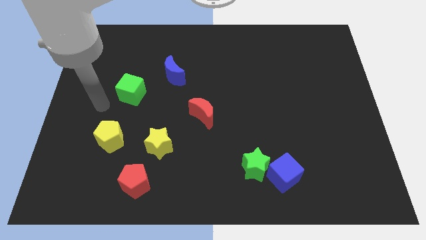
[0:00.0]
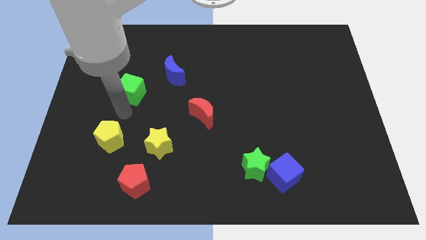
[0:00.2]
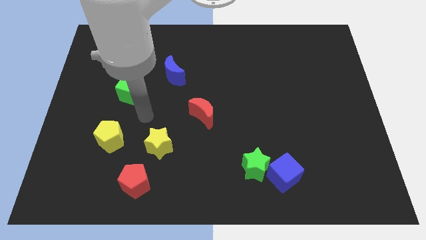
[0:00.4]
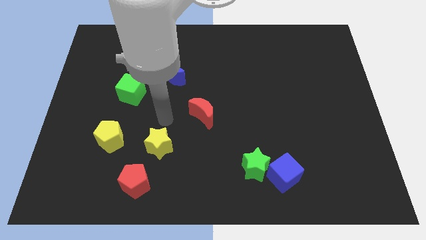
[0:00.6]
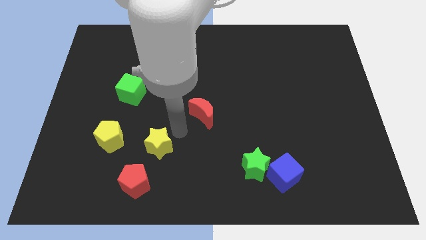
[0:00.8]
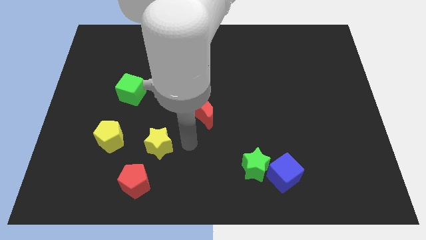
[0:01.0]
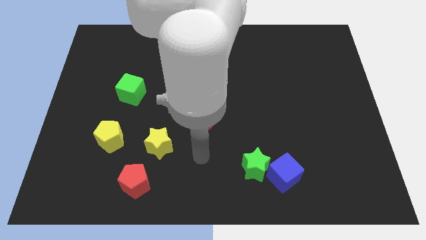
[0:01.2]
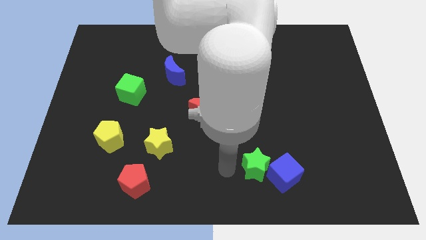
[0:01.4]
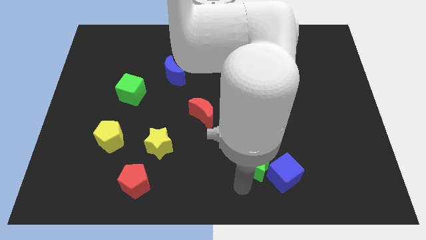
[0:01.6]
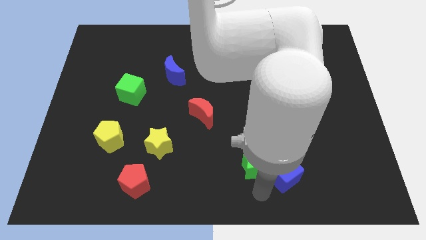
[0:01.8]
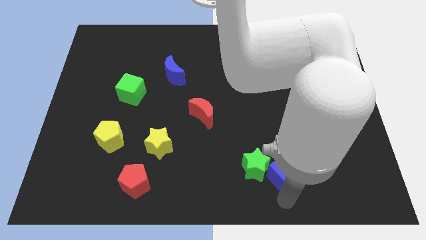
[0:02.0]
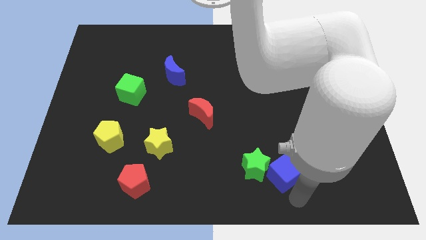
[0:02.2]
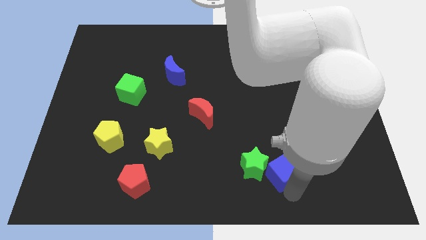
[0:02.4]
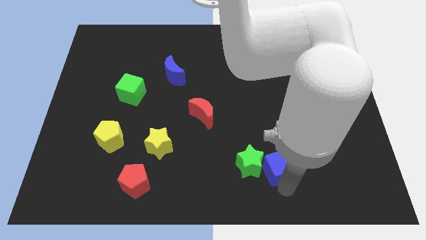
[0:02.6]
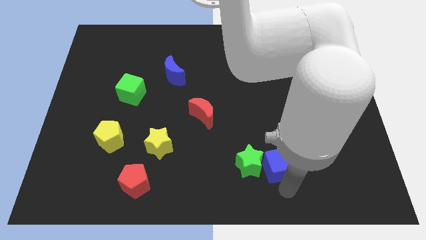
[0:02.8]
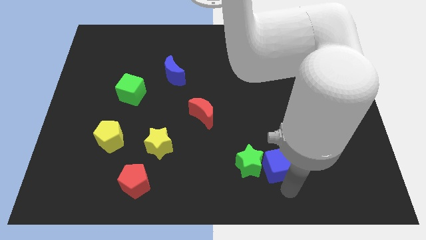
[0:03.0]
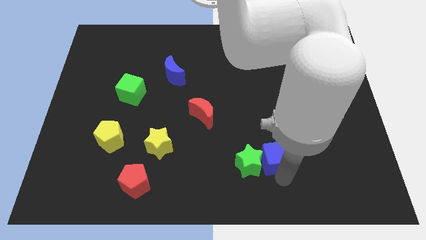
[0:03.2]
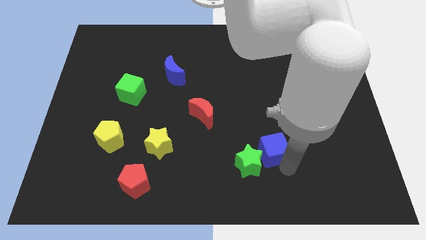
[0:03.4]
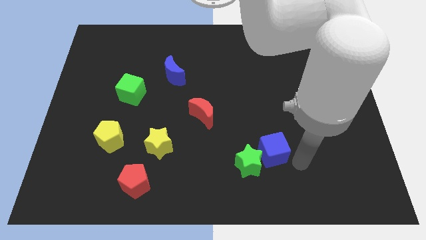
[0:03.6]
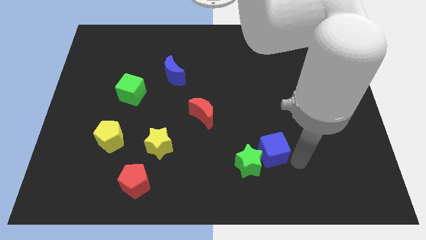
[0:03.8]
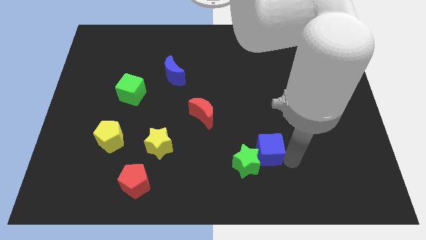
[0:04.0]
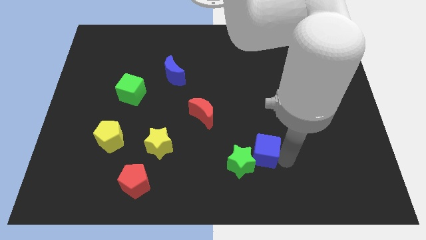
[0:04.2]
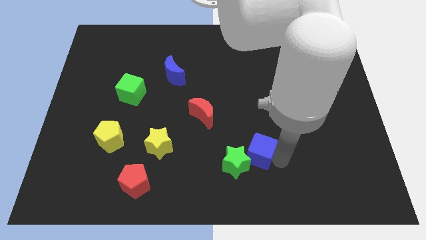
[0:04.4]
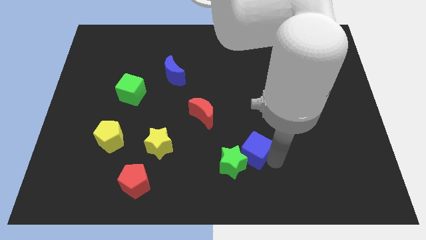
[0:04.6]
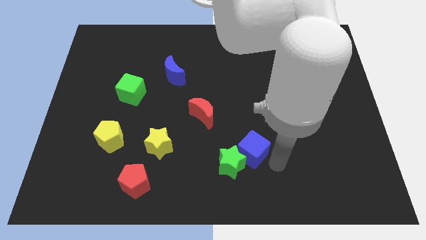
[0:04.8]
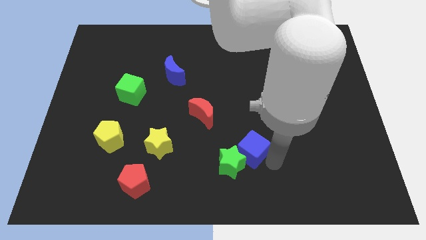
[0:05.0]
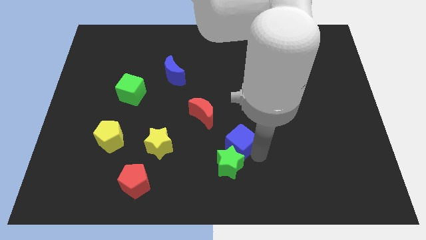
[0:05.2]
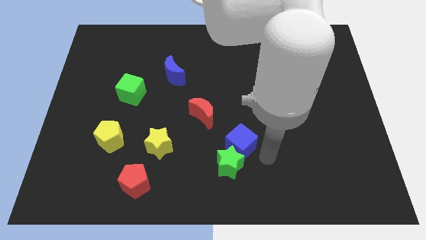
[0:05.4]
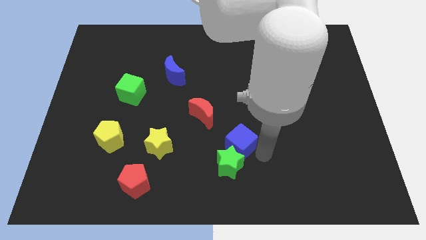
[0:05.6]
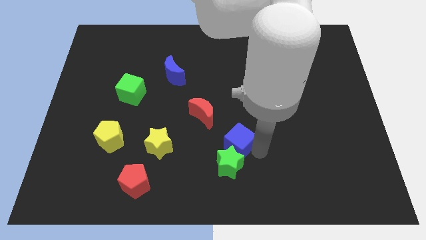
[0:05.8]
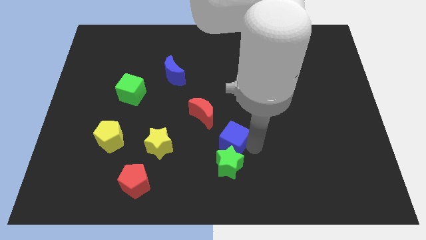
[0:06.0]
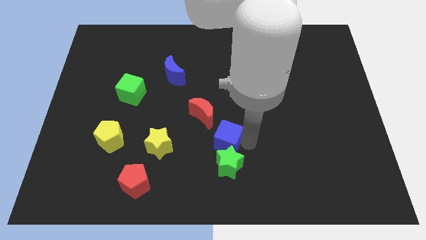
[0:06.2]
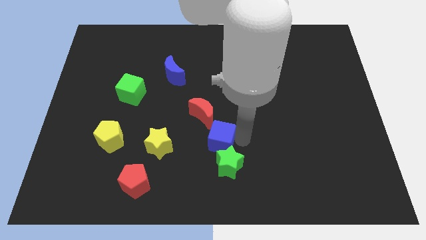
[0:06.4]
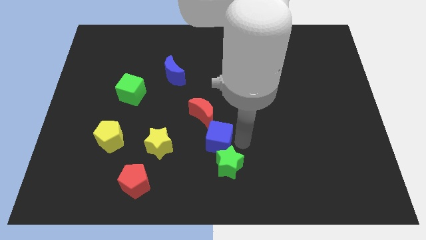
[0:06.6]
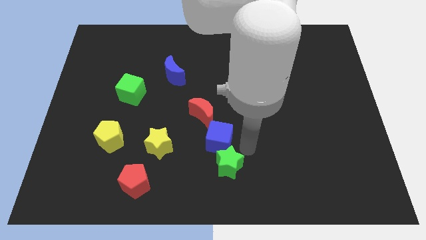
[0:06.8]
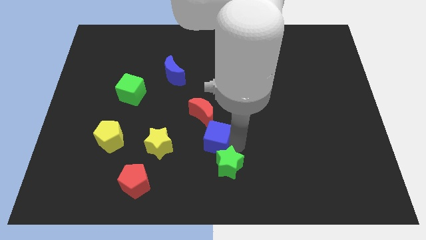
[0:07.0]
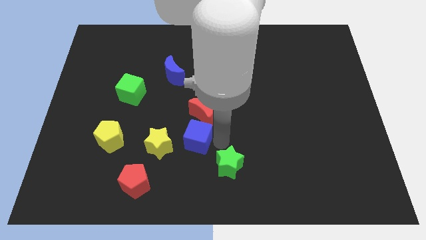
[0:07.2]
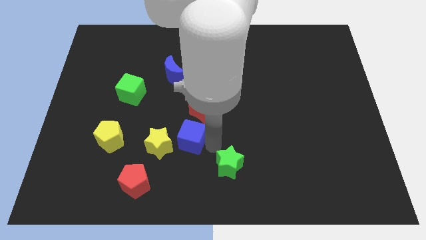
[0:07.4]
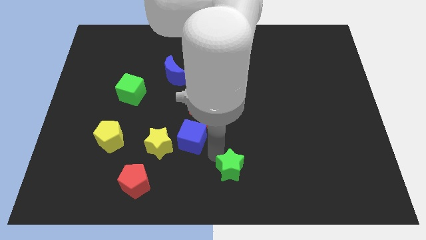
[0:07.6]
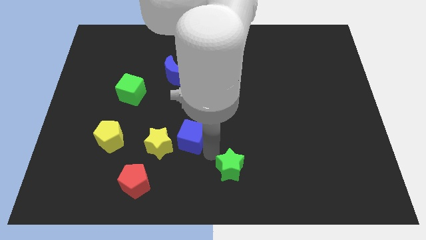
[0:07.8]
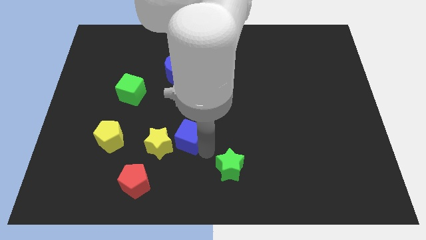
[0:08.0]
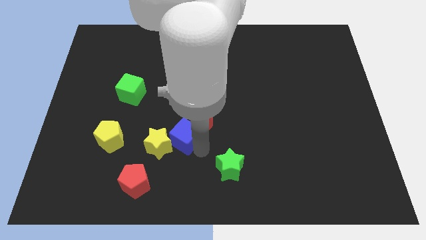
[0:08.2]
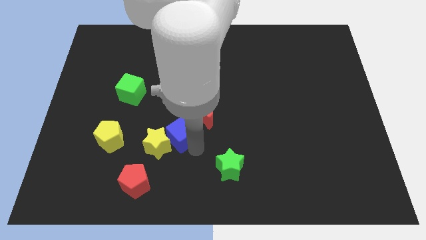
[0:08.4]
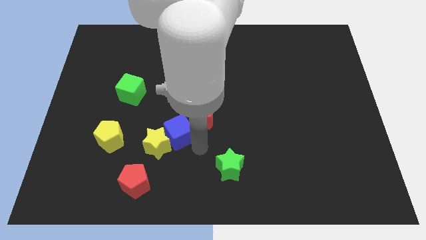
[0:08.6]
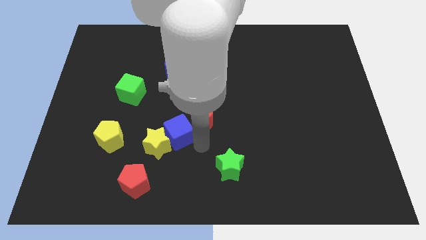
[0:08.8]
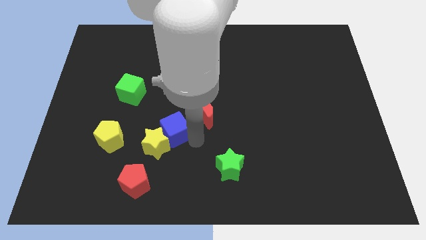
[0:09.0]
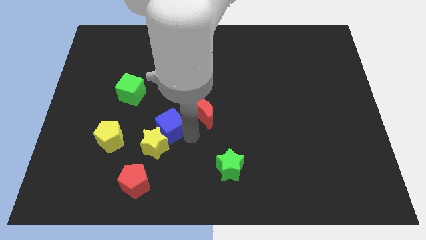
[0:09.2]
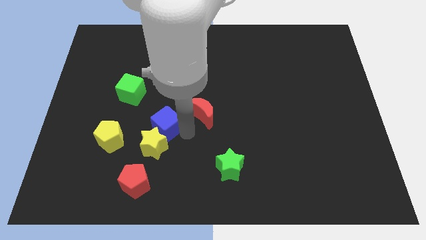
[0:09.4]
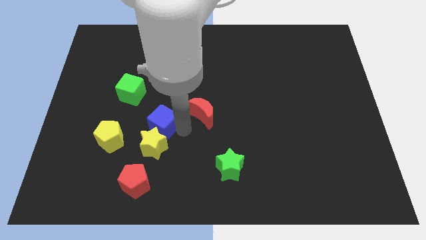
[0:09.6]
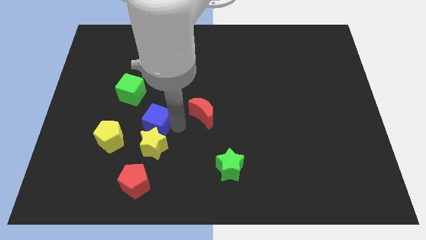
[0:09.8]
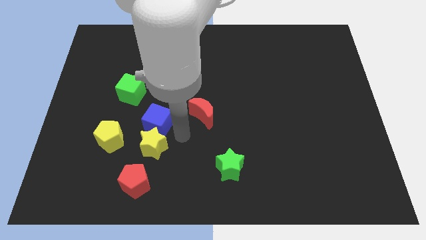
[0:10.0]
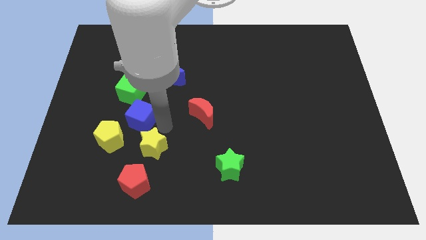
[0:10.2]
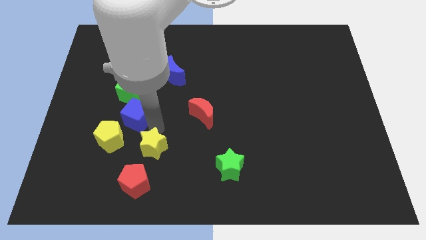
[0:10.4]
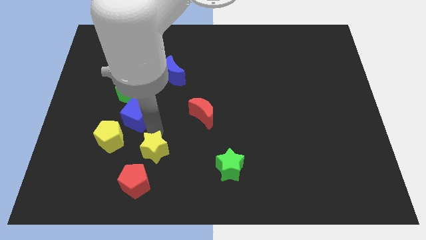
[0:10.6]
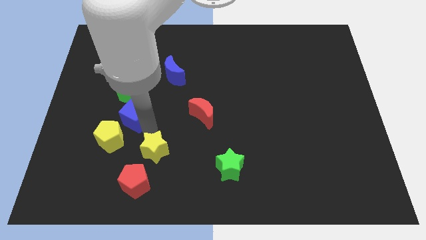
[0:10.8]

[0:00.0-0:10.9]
push the blue cube above the yellow pentagon

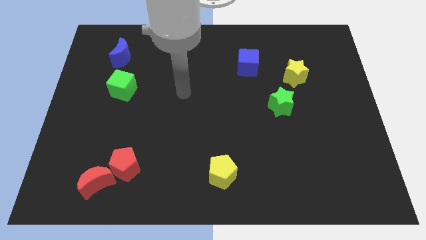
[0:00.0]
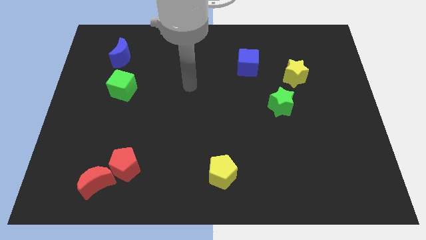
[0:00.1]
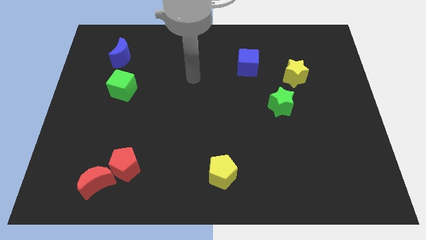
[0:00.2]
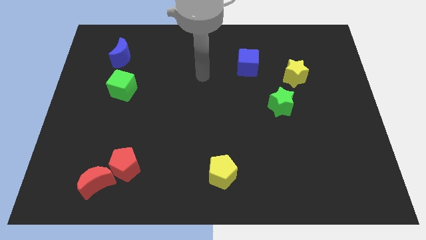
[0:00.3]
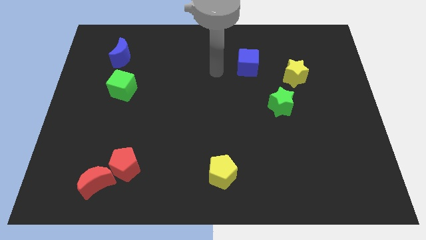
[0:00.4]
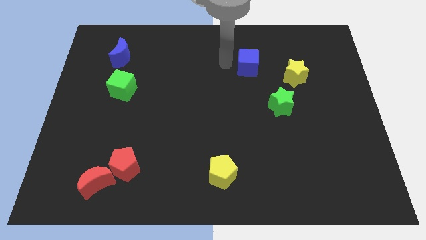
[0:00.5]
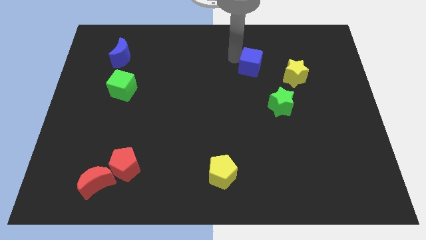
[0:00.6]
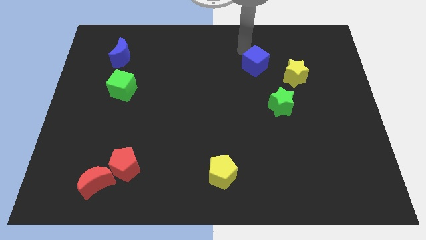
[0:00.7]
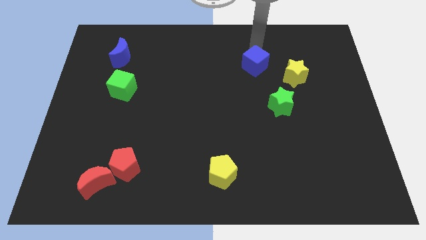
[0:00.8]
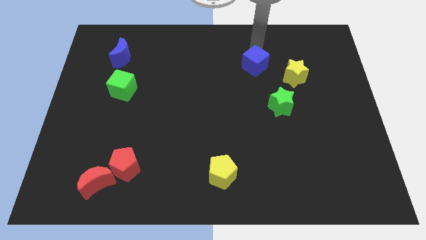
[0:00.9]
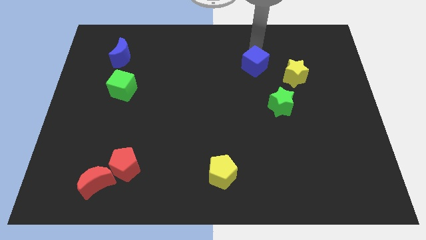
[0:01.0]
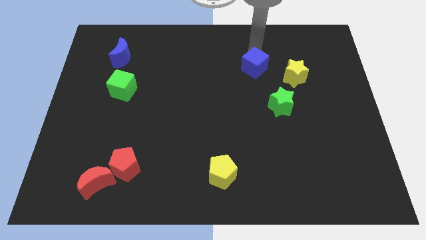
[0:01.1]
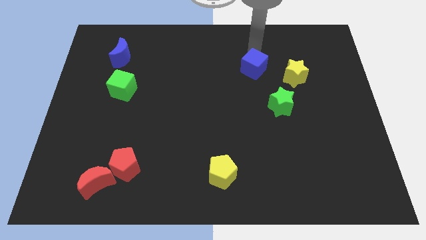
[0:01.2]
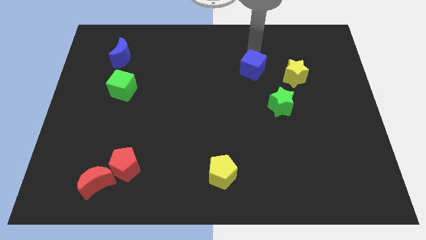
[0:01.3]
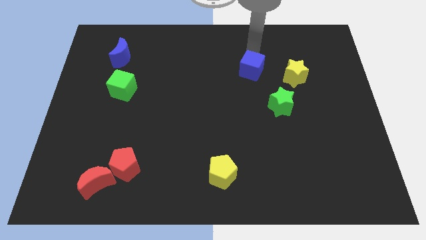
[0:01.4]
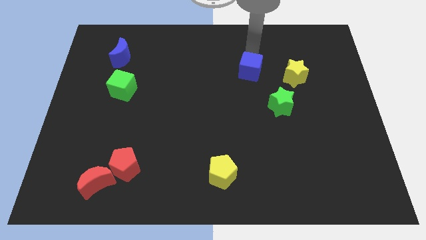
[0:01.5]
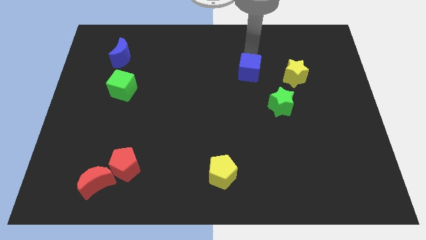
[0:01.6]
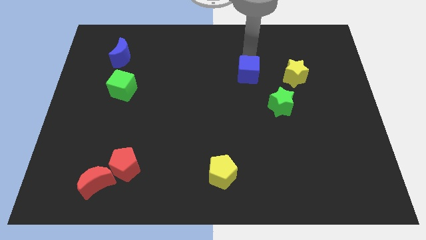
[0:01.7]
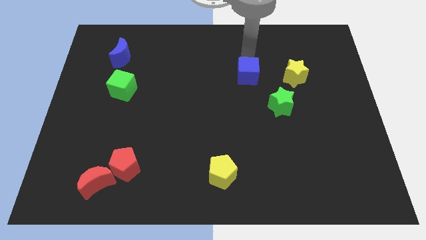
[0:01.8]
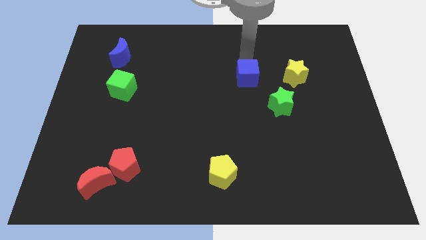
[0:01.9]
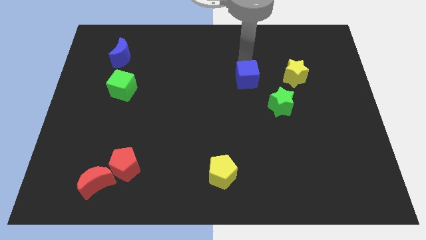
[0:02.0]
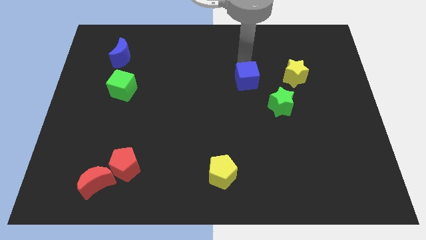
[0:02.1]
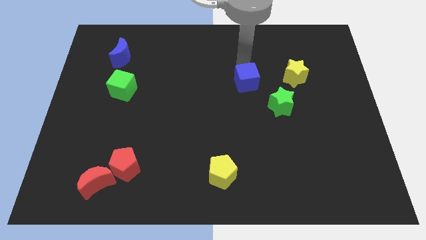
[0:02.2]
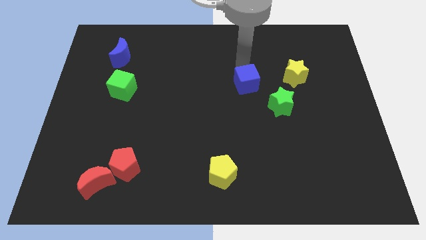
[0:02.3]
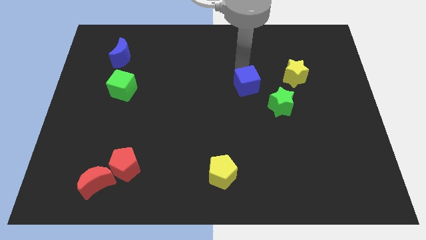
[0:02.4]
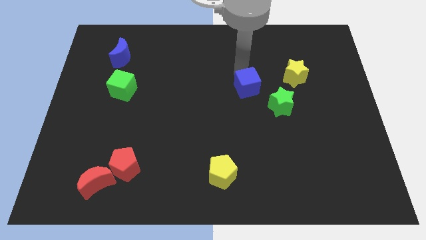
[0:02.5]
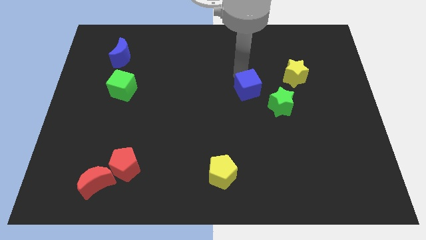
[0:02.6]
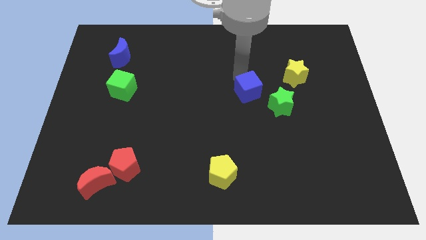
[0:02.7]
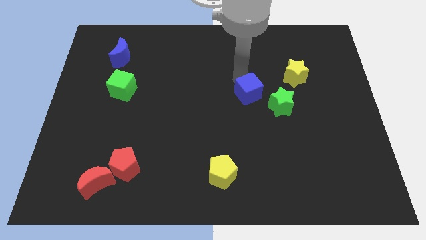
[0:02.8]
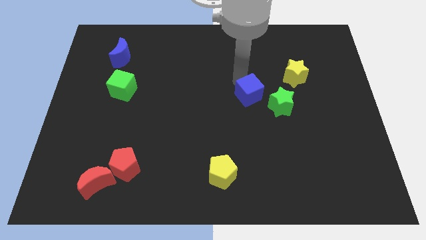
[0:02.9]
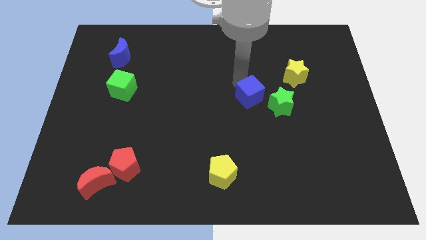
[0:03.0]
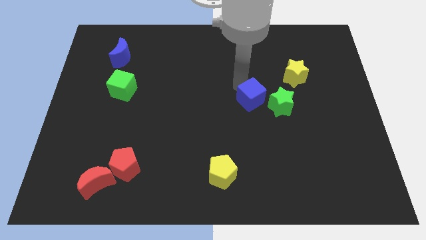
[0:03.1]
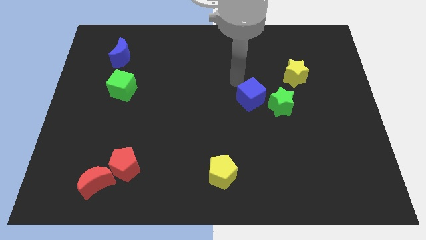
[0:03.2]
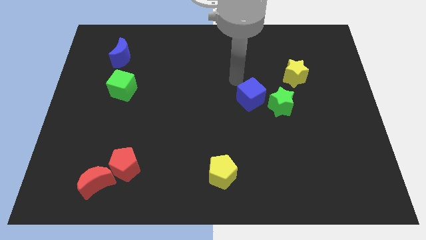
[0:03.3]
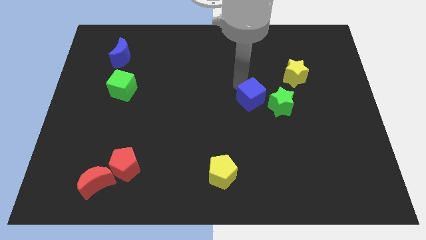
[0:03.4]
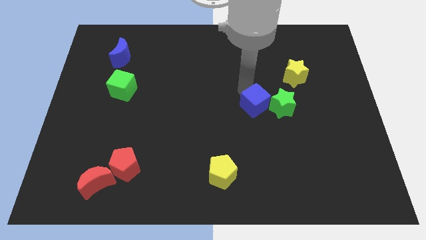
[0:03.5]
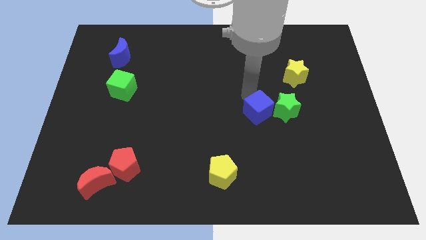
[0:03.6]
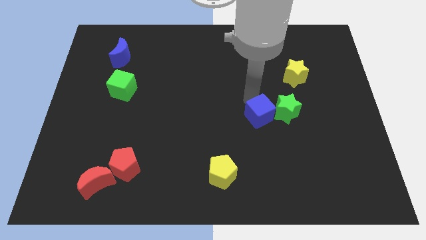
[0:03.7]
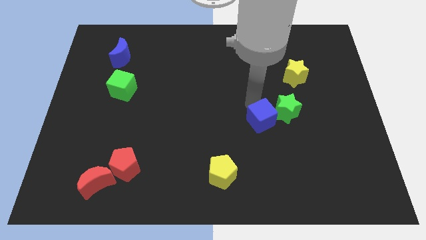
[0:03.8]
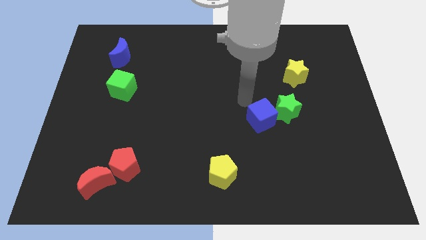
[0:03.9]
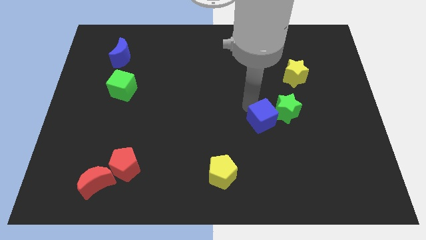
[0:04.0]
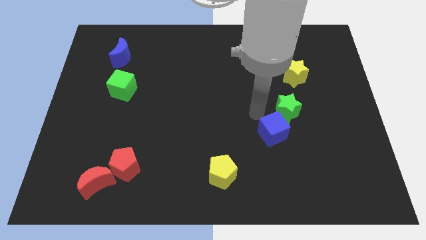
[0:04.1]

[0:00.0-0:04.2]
move the blue cube to the bottom of the green star
